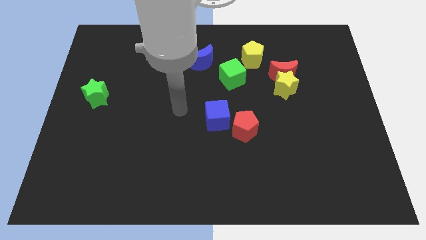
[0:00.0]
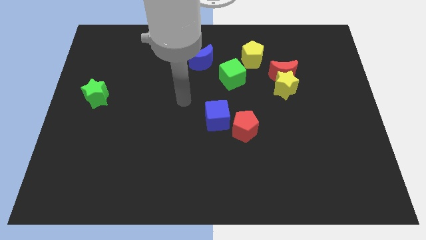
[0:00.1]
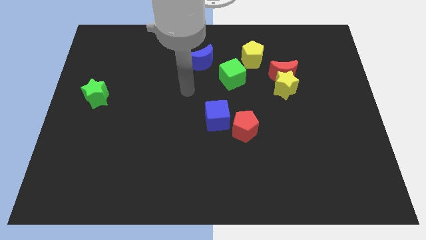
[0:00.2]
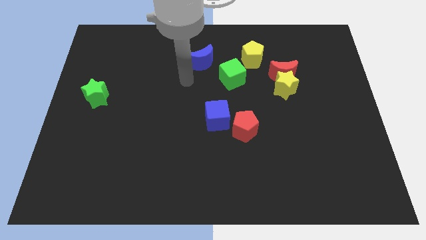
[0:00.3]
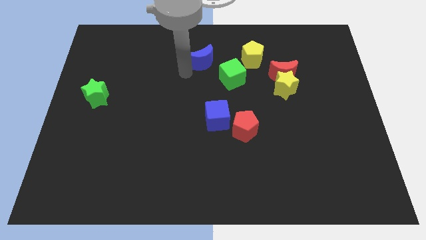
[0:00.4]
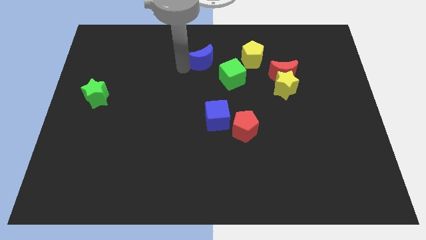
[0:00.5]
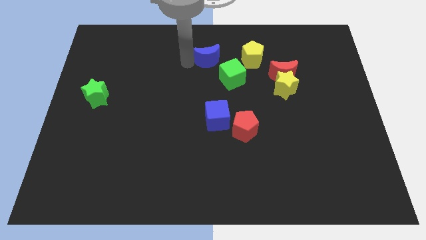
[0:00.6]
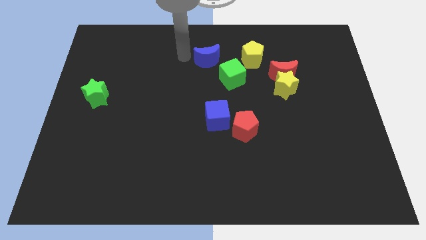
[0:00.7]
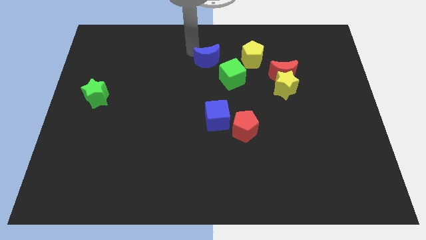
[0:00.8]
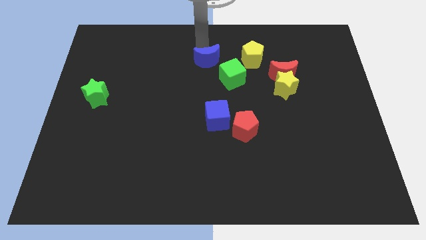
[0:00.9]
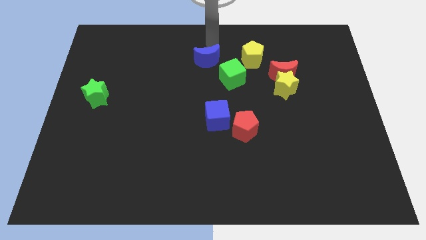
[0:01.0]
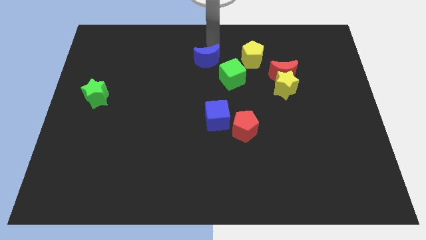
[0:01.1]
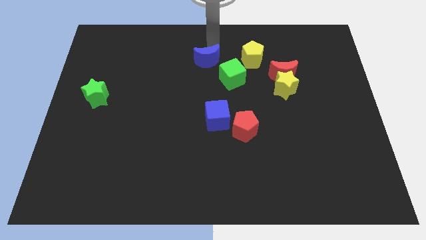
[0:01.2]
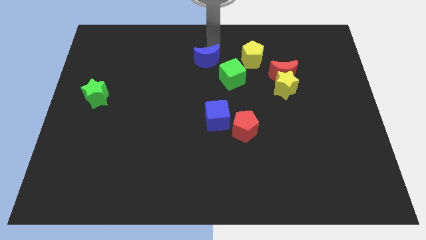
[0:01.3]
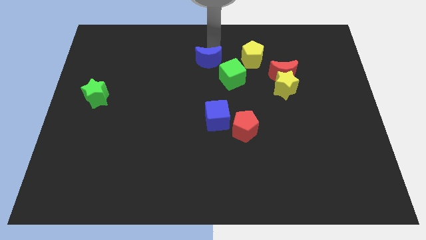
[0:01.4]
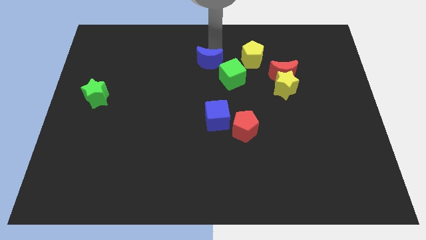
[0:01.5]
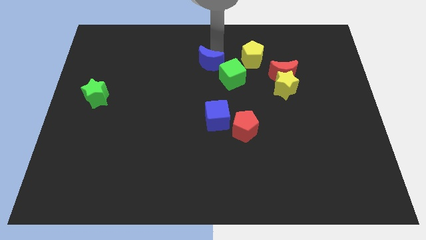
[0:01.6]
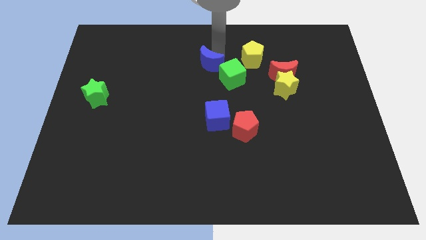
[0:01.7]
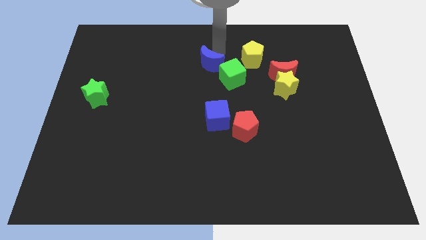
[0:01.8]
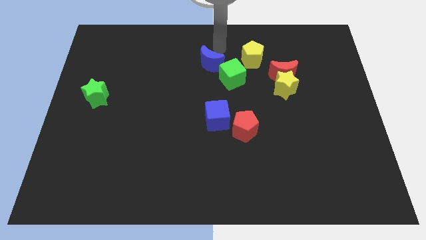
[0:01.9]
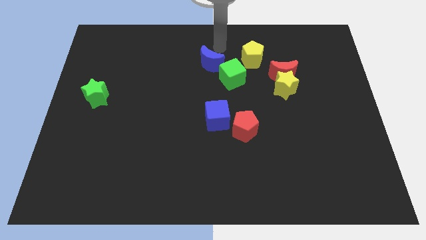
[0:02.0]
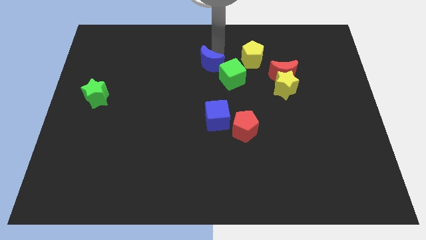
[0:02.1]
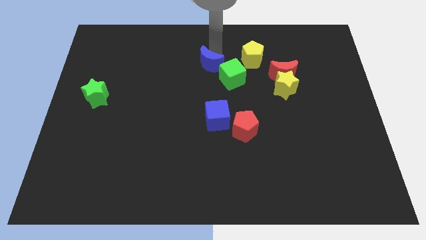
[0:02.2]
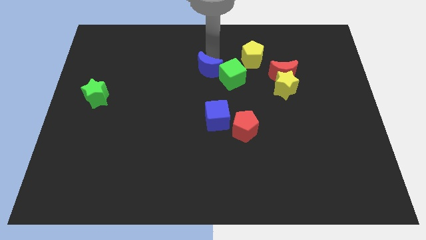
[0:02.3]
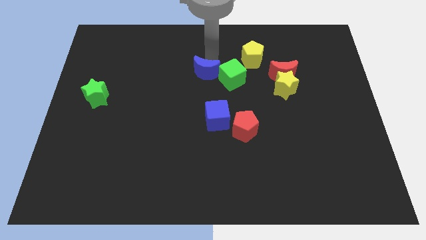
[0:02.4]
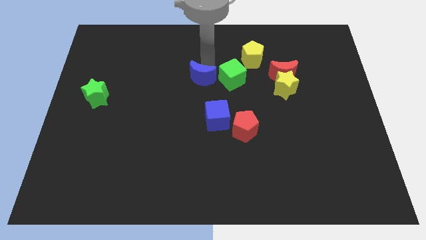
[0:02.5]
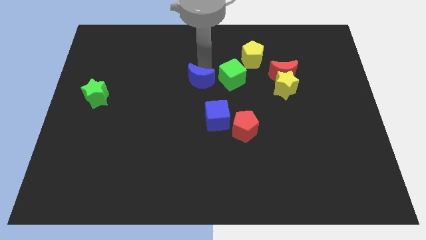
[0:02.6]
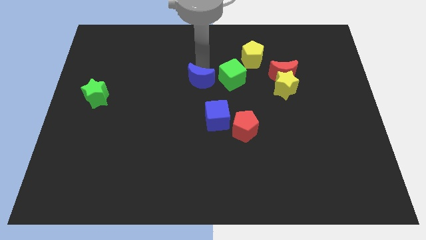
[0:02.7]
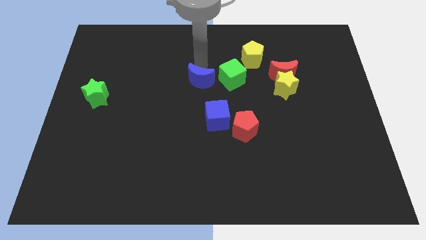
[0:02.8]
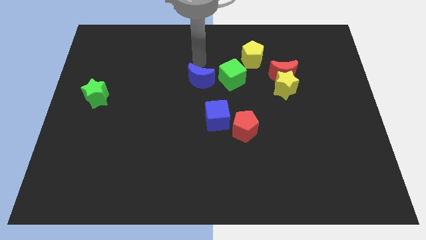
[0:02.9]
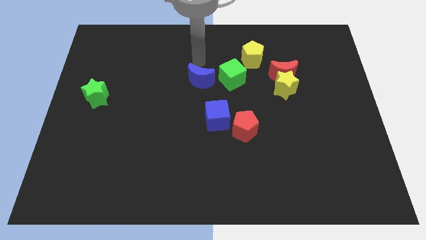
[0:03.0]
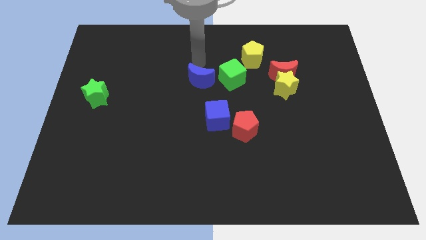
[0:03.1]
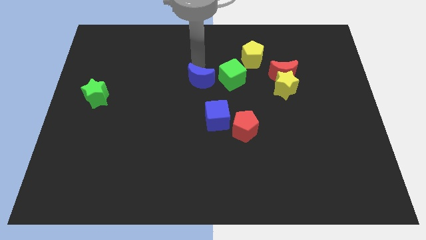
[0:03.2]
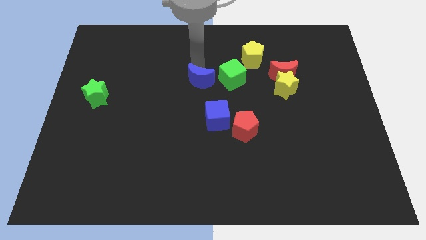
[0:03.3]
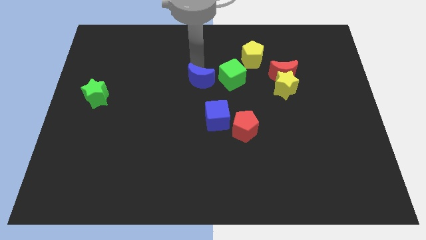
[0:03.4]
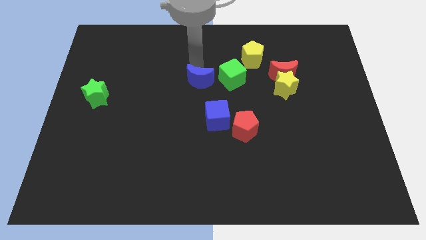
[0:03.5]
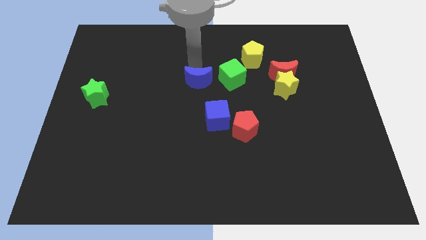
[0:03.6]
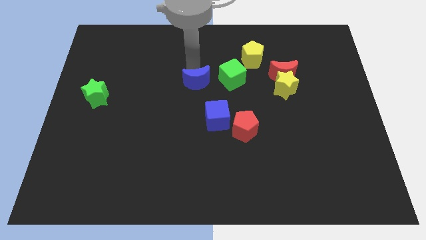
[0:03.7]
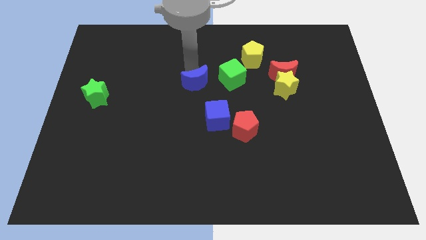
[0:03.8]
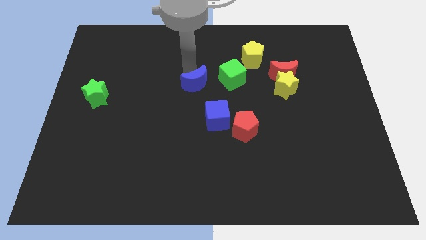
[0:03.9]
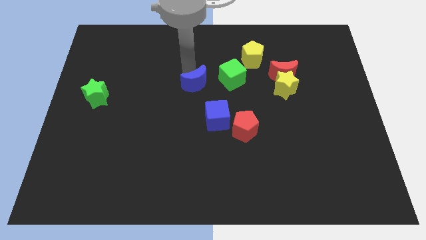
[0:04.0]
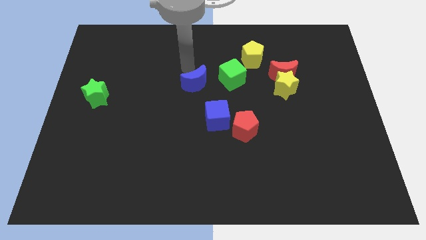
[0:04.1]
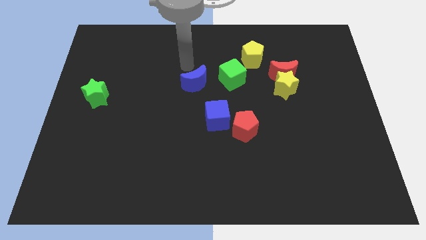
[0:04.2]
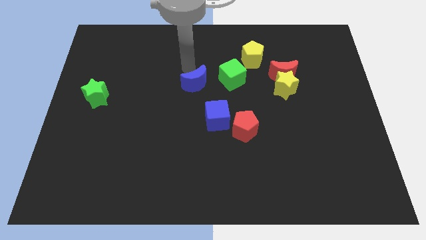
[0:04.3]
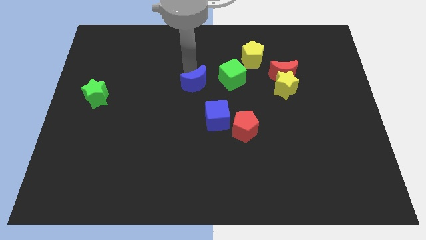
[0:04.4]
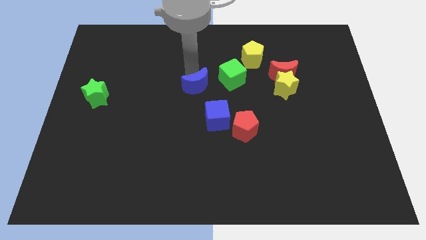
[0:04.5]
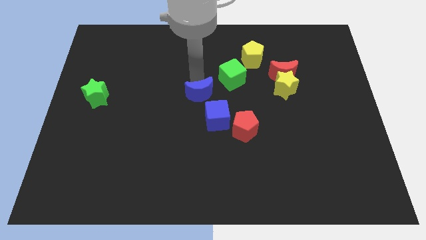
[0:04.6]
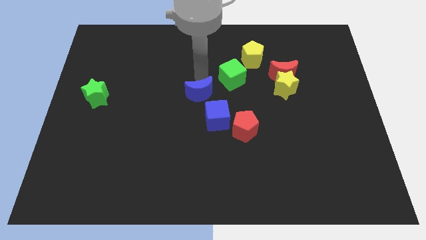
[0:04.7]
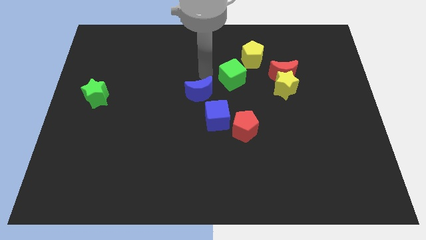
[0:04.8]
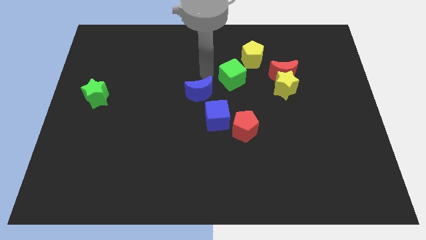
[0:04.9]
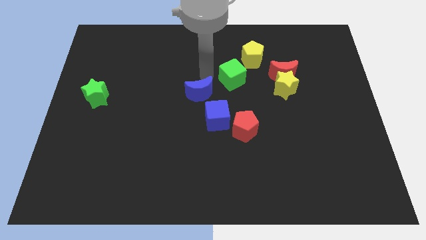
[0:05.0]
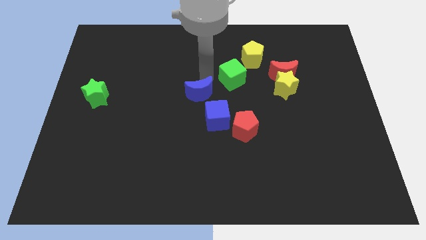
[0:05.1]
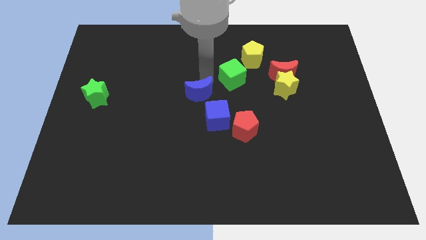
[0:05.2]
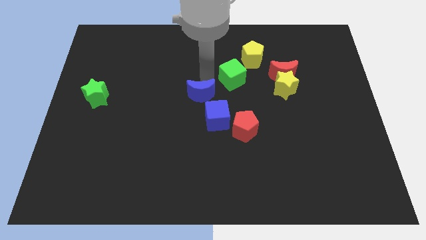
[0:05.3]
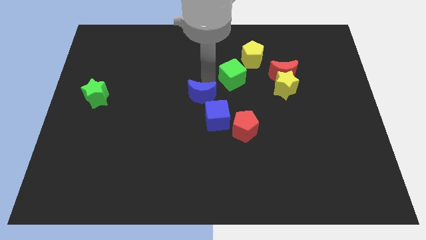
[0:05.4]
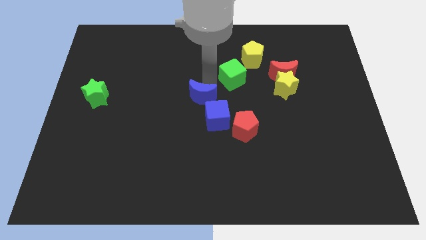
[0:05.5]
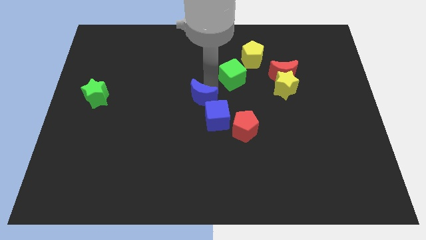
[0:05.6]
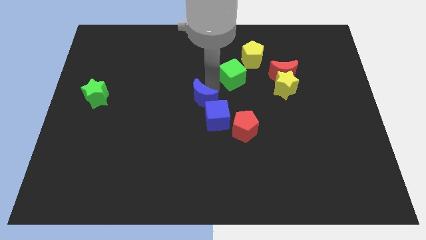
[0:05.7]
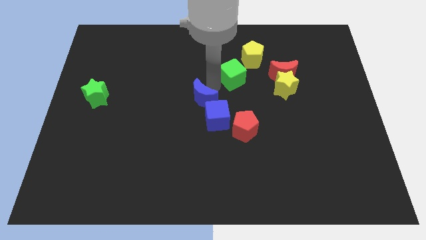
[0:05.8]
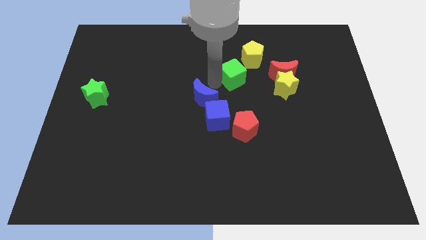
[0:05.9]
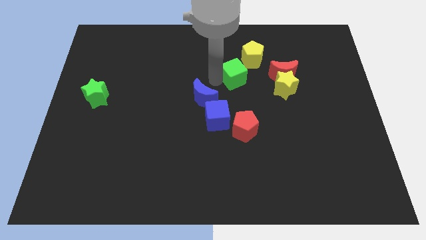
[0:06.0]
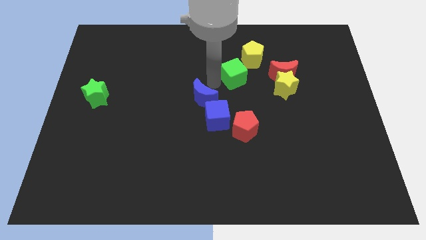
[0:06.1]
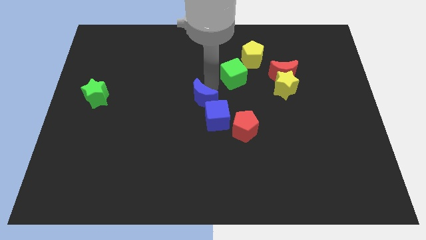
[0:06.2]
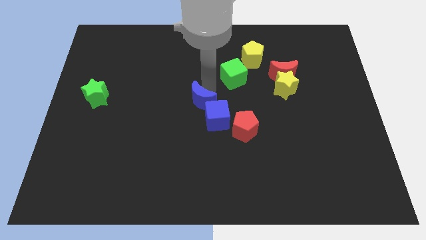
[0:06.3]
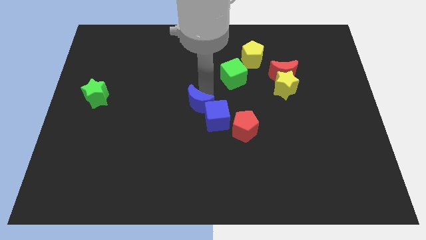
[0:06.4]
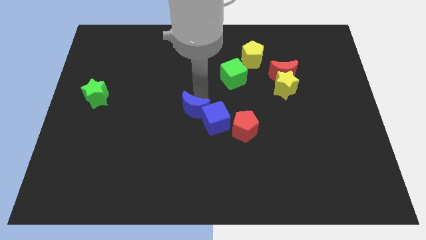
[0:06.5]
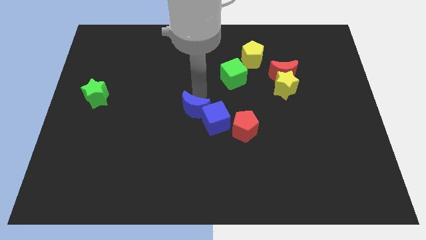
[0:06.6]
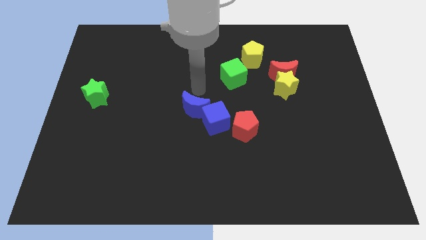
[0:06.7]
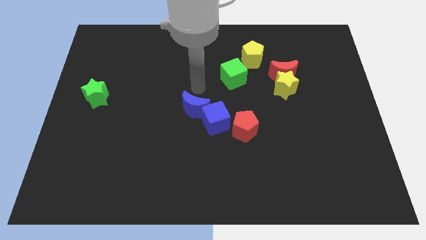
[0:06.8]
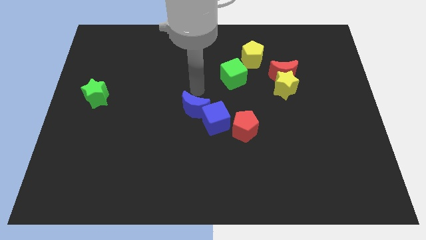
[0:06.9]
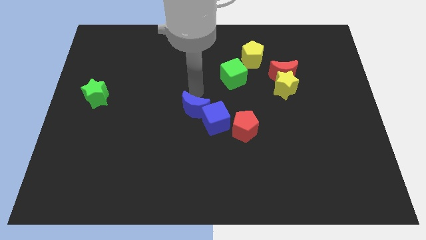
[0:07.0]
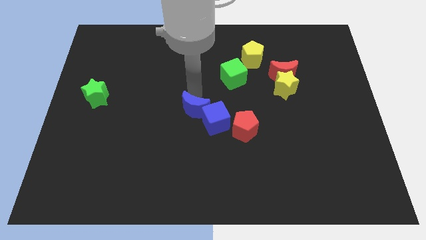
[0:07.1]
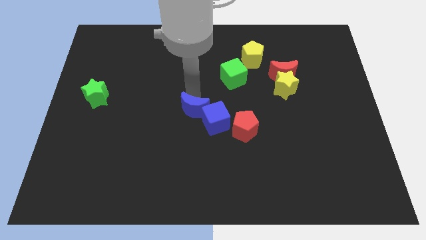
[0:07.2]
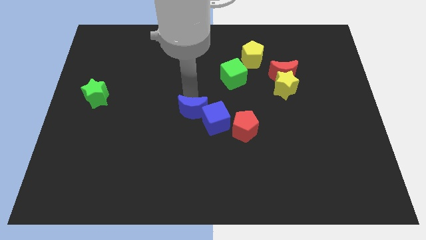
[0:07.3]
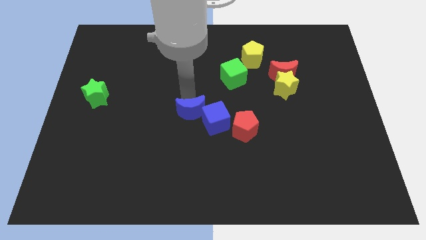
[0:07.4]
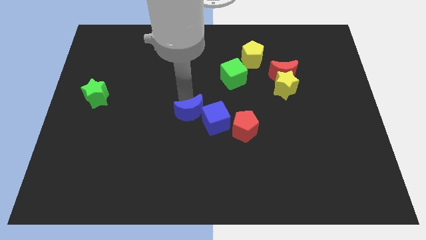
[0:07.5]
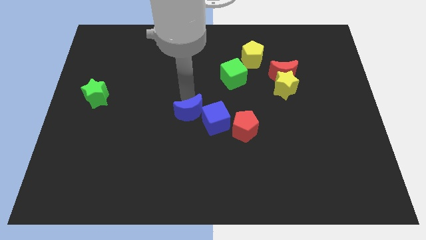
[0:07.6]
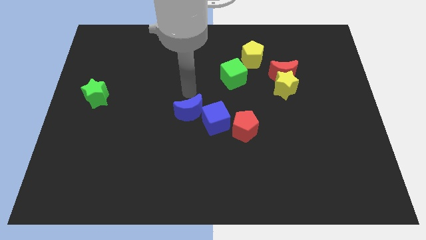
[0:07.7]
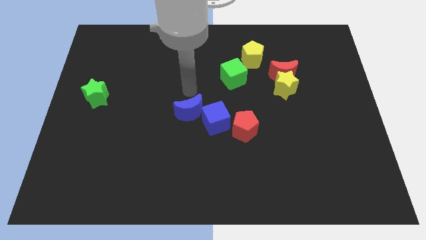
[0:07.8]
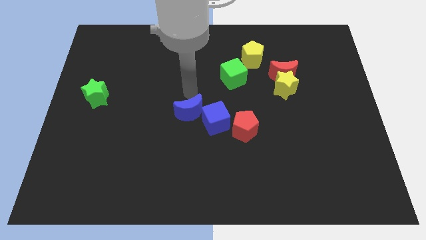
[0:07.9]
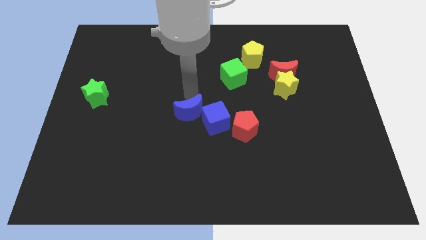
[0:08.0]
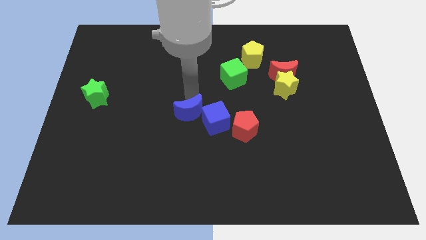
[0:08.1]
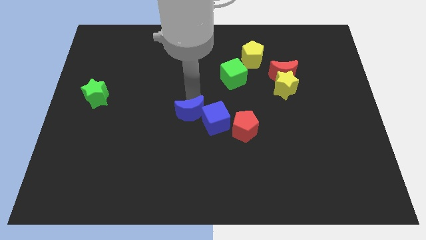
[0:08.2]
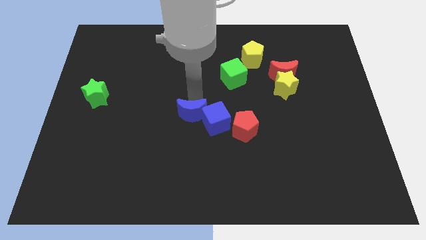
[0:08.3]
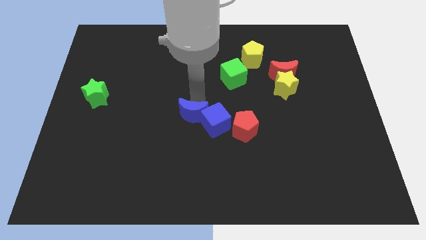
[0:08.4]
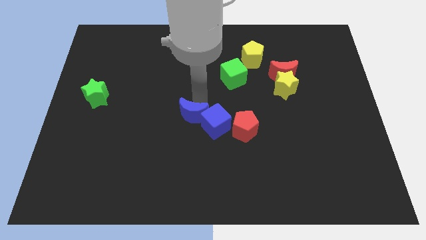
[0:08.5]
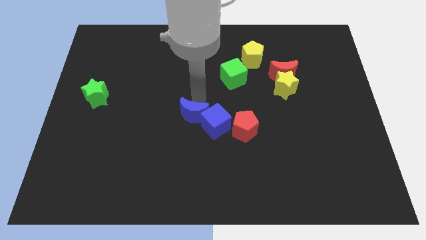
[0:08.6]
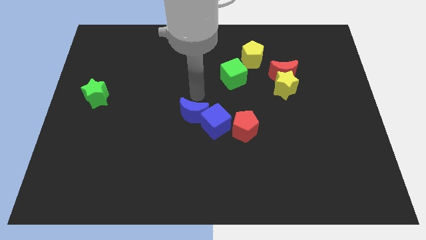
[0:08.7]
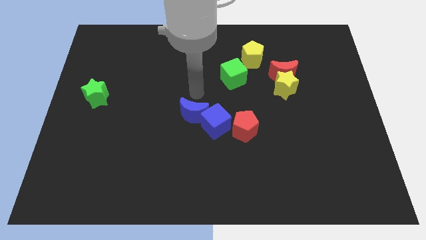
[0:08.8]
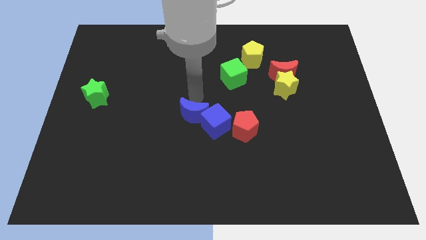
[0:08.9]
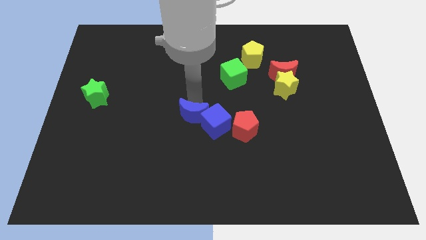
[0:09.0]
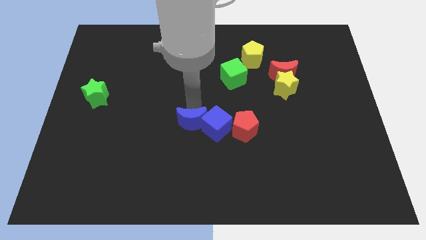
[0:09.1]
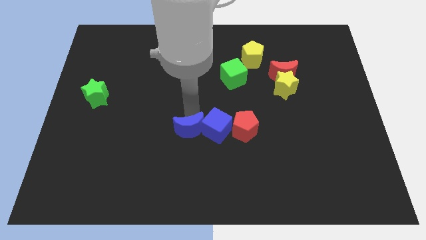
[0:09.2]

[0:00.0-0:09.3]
move the blue moon down
